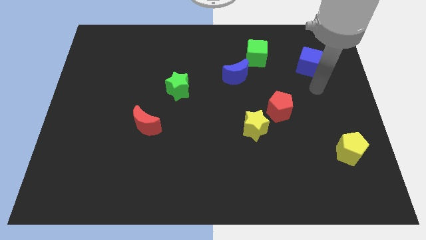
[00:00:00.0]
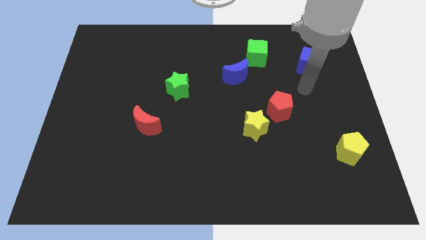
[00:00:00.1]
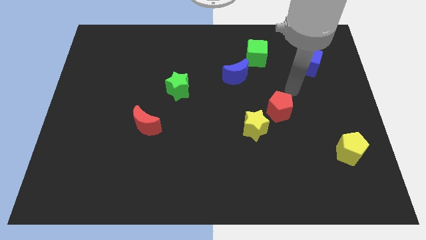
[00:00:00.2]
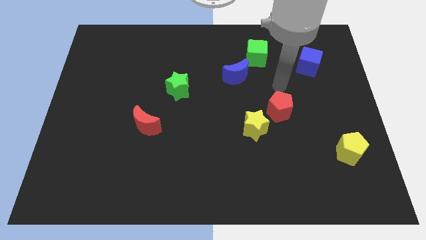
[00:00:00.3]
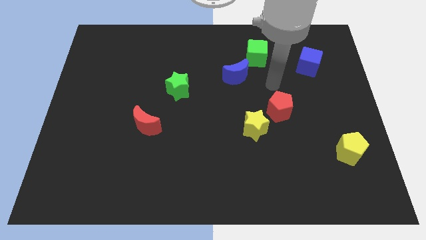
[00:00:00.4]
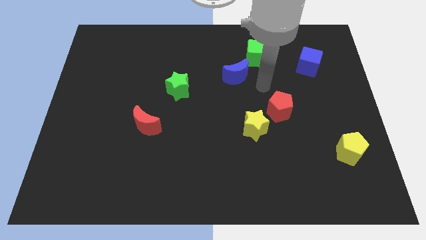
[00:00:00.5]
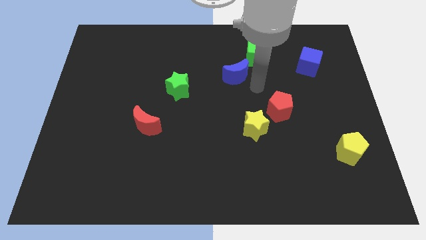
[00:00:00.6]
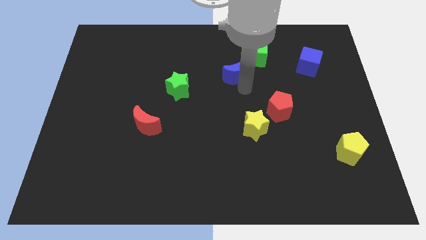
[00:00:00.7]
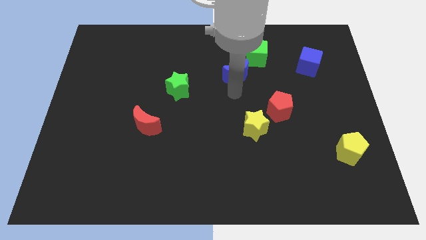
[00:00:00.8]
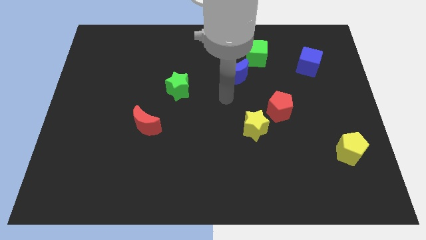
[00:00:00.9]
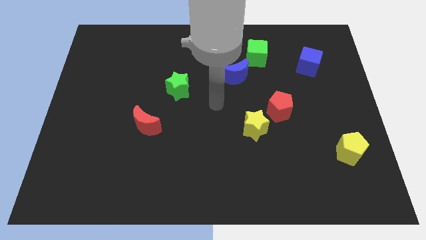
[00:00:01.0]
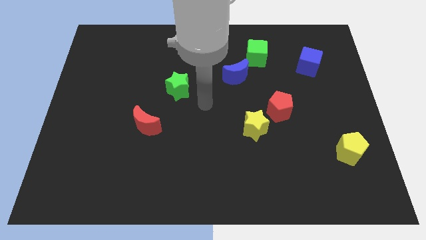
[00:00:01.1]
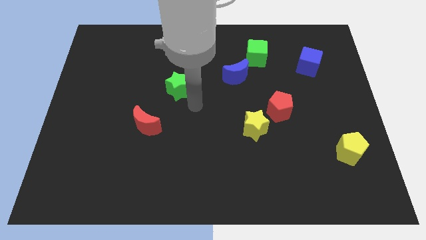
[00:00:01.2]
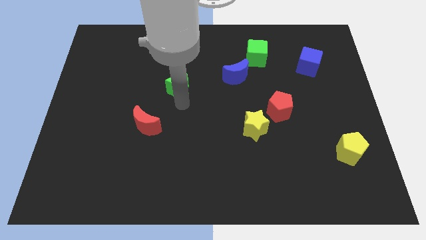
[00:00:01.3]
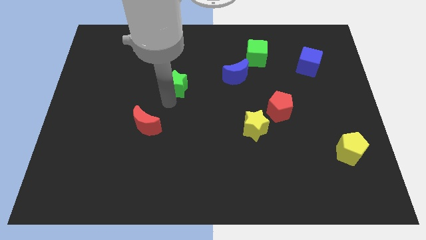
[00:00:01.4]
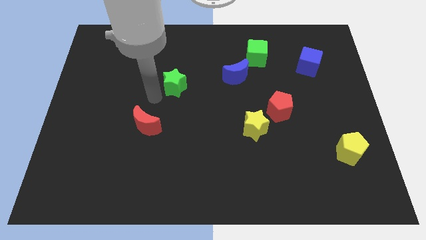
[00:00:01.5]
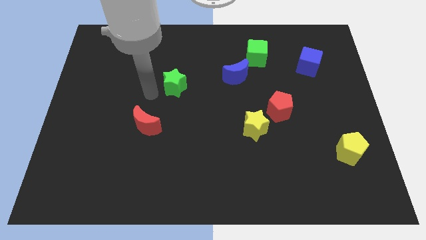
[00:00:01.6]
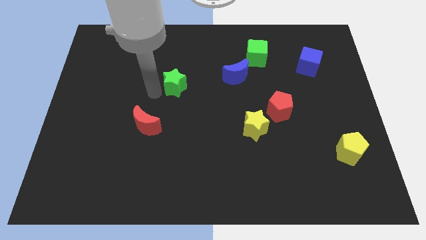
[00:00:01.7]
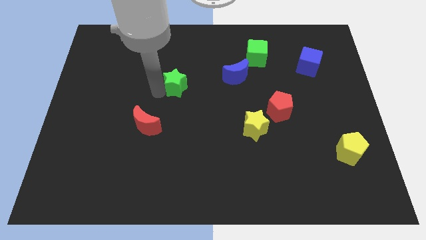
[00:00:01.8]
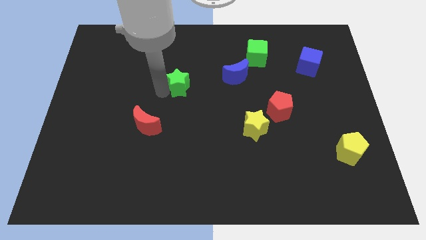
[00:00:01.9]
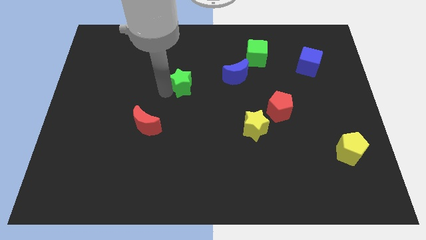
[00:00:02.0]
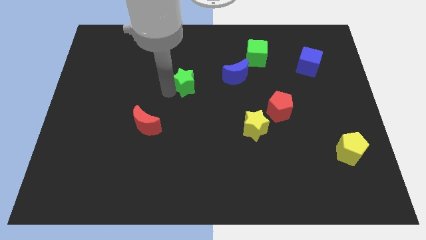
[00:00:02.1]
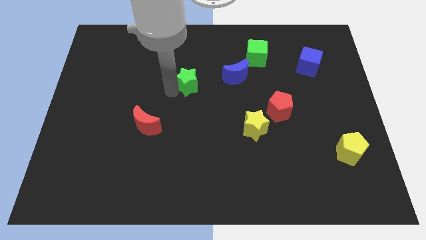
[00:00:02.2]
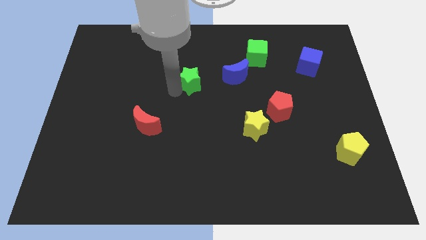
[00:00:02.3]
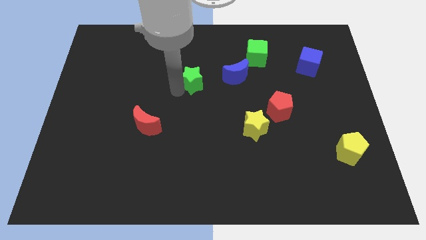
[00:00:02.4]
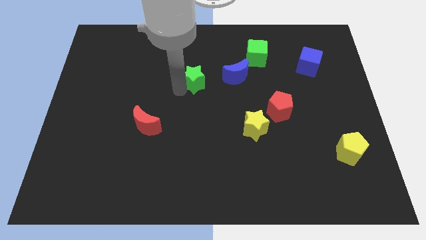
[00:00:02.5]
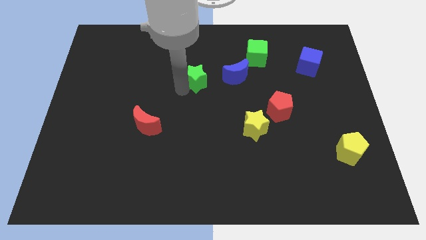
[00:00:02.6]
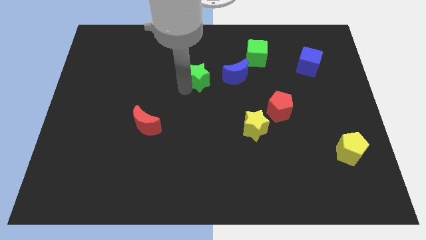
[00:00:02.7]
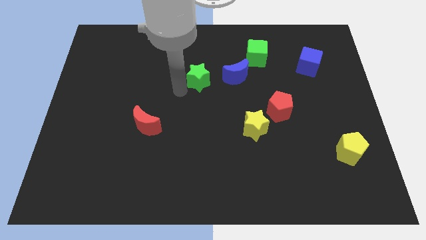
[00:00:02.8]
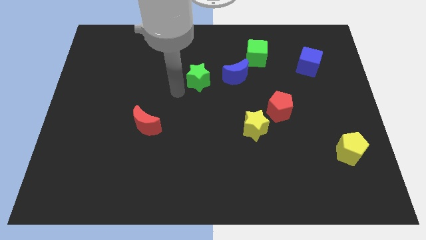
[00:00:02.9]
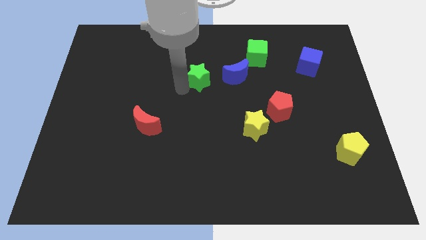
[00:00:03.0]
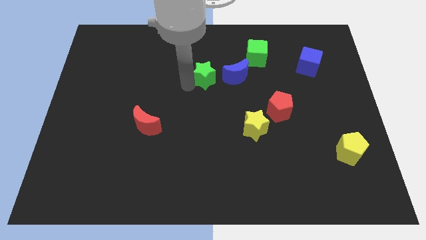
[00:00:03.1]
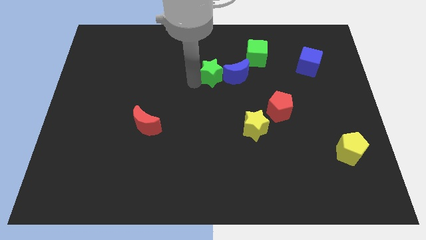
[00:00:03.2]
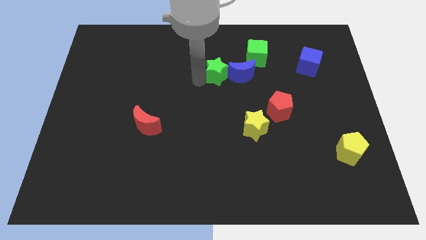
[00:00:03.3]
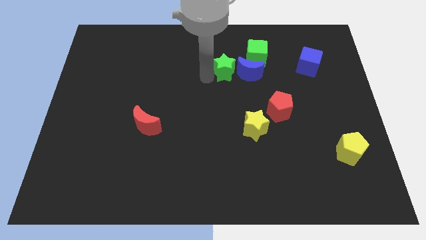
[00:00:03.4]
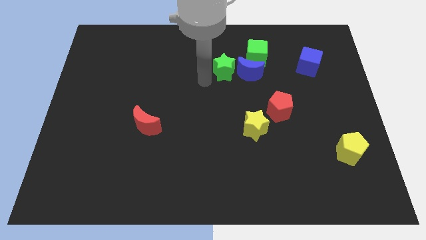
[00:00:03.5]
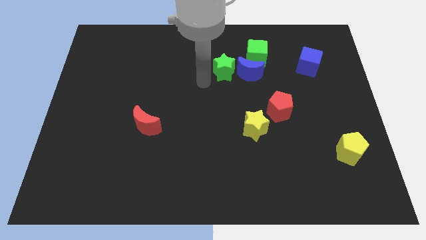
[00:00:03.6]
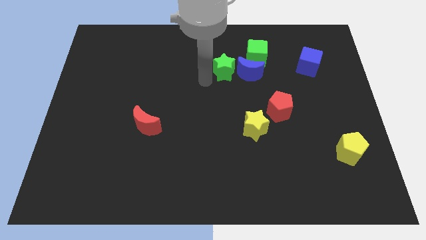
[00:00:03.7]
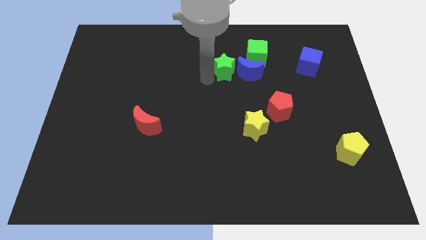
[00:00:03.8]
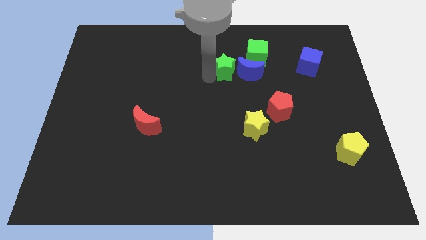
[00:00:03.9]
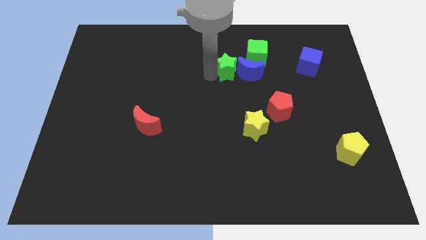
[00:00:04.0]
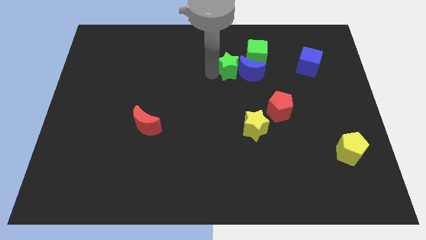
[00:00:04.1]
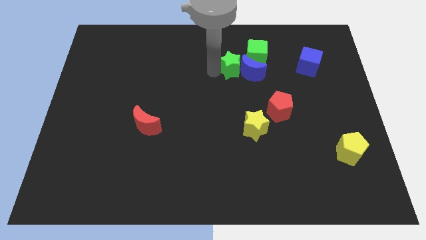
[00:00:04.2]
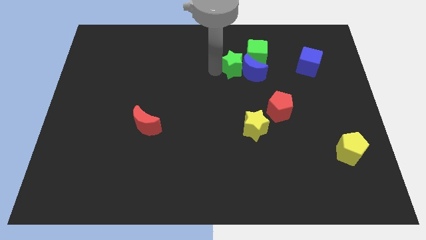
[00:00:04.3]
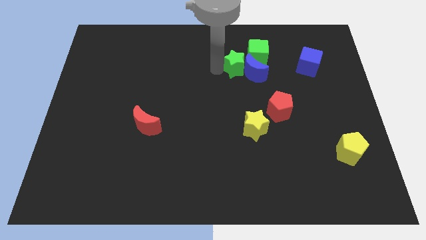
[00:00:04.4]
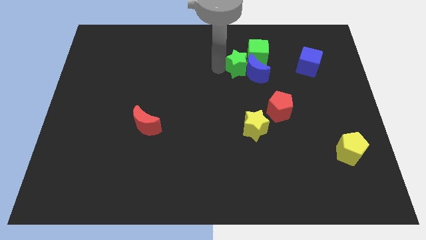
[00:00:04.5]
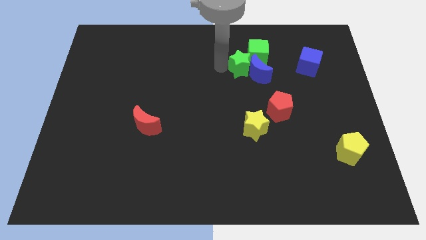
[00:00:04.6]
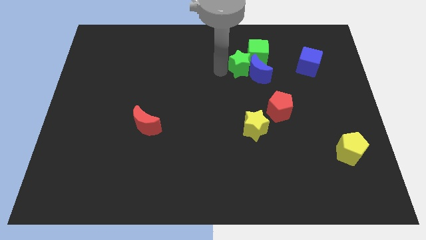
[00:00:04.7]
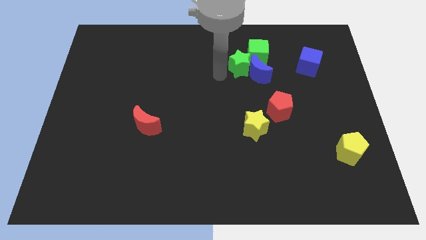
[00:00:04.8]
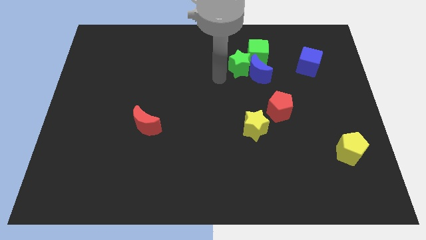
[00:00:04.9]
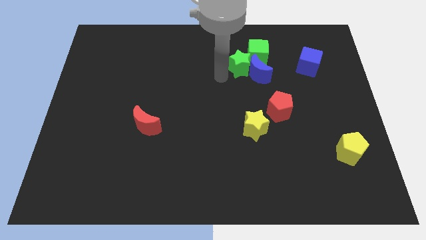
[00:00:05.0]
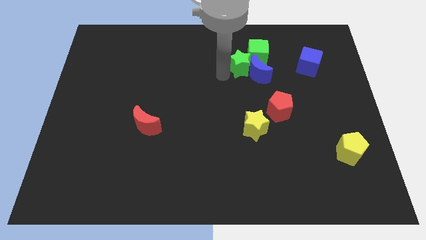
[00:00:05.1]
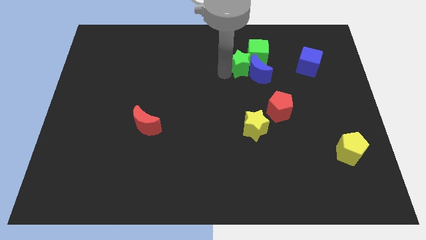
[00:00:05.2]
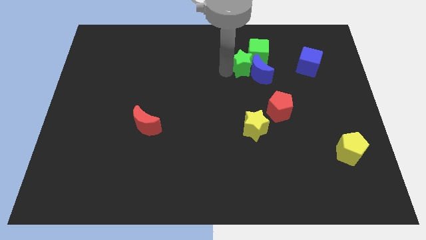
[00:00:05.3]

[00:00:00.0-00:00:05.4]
push the green star next to the green cube

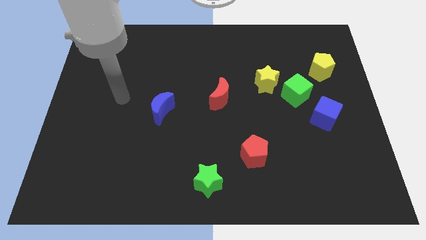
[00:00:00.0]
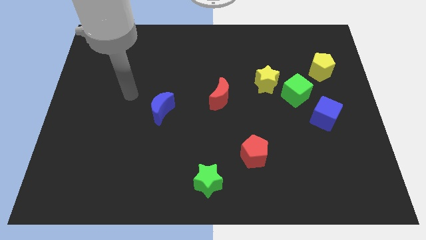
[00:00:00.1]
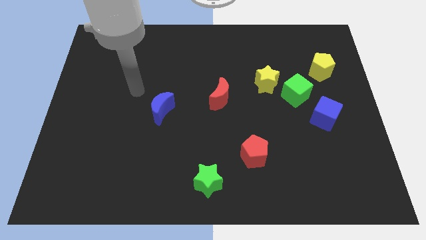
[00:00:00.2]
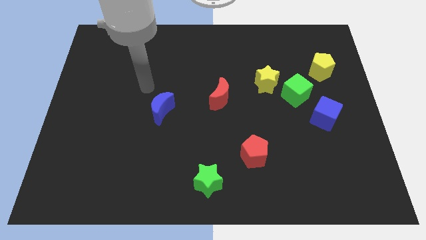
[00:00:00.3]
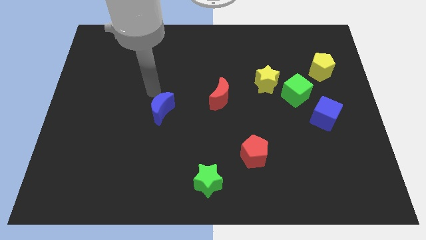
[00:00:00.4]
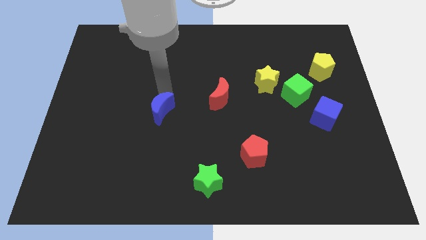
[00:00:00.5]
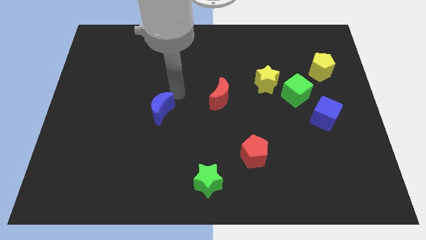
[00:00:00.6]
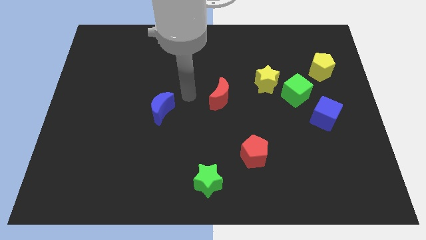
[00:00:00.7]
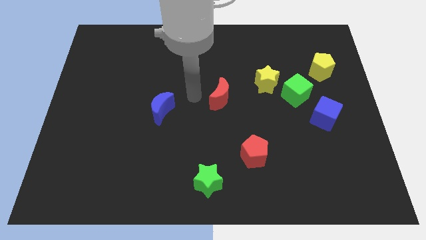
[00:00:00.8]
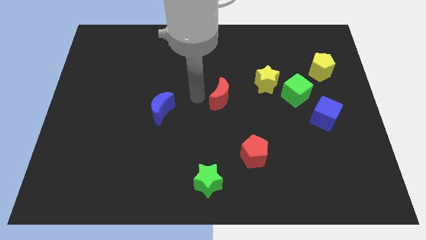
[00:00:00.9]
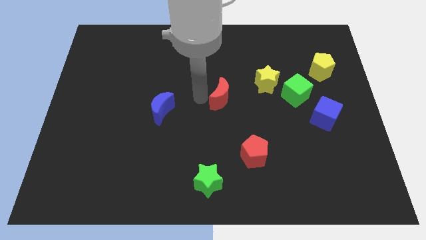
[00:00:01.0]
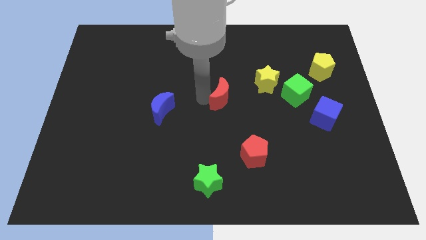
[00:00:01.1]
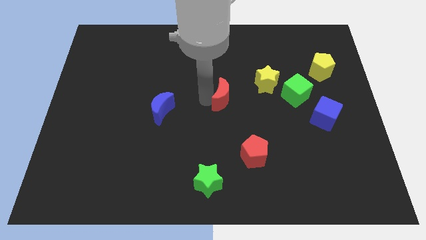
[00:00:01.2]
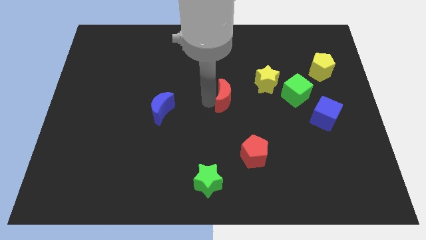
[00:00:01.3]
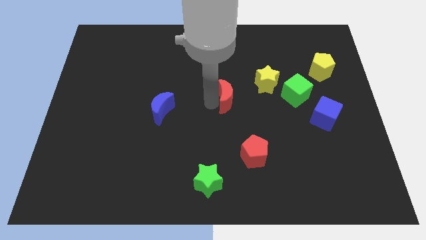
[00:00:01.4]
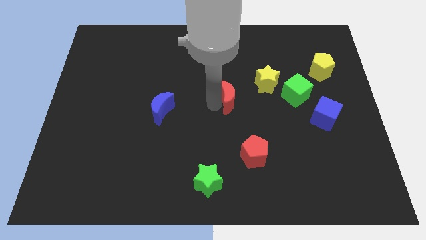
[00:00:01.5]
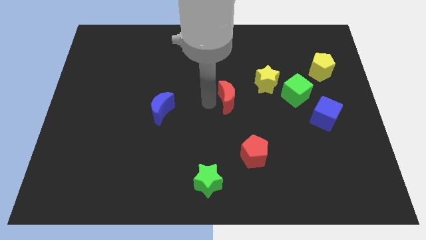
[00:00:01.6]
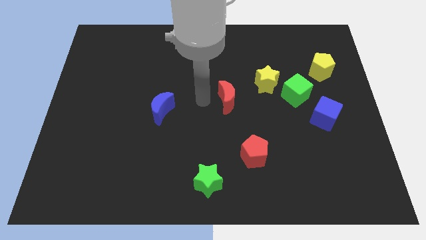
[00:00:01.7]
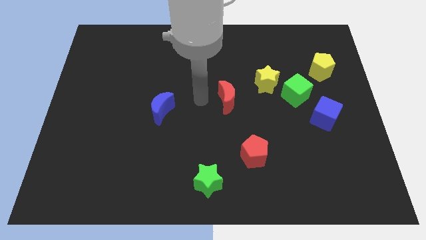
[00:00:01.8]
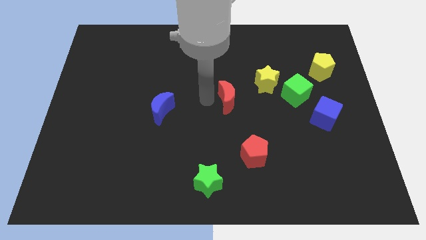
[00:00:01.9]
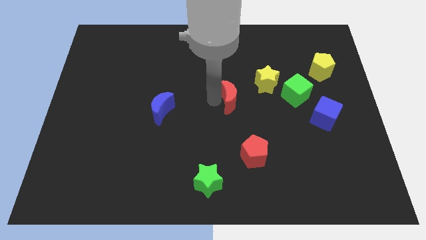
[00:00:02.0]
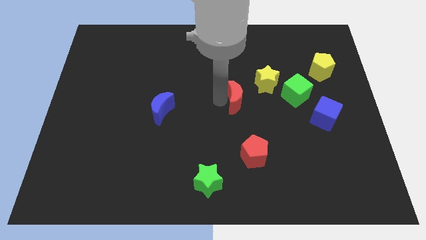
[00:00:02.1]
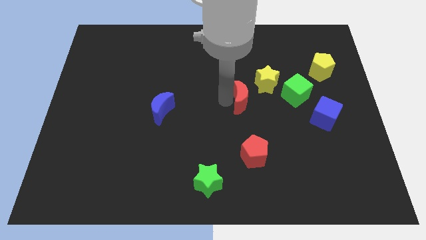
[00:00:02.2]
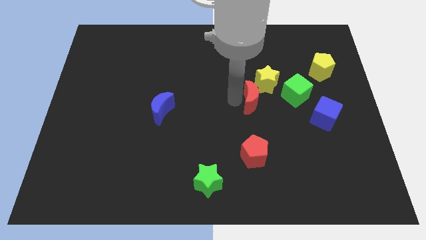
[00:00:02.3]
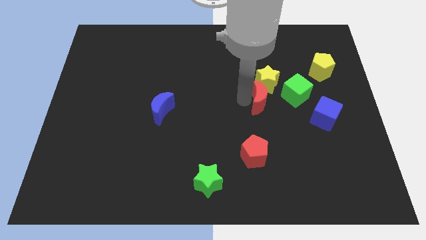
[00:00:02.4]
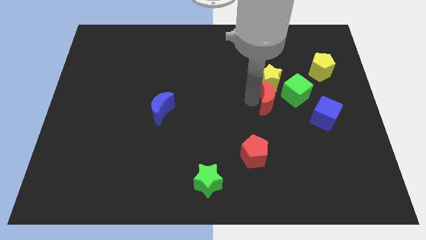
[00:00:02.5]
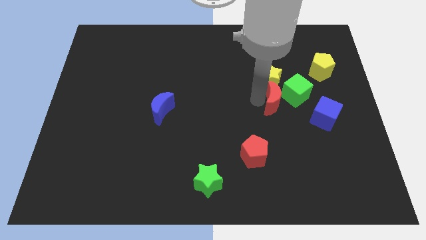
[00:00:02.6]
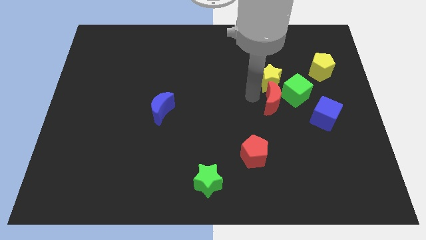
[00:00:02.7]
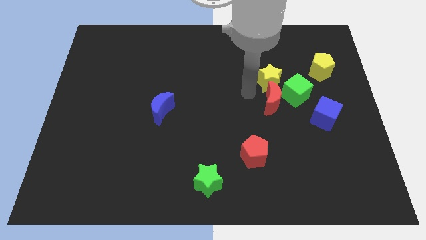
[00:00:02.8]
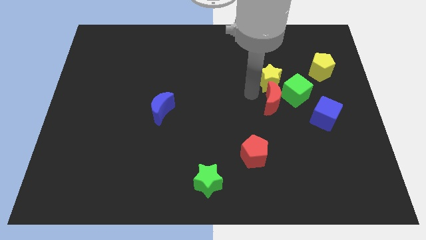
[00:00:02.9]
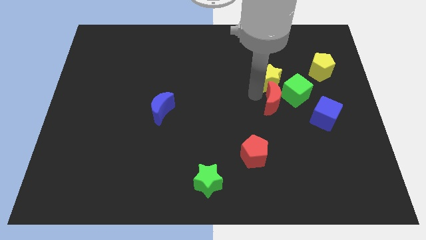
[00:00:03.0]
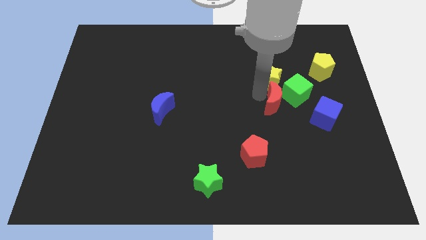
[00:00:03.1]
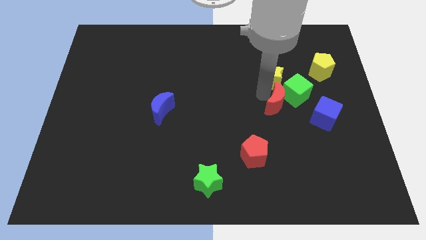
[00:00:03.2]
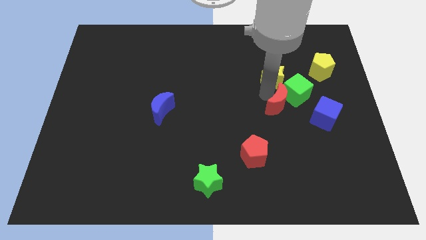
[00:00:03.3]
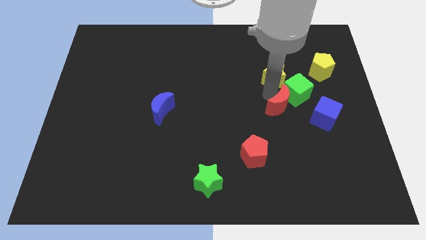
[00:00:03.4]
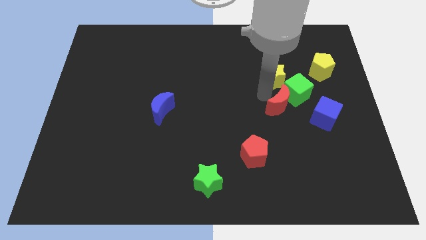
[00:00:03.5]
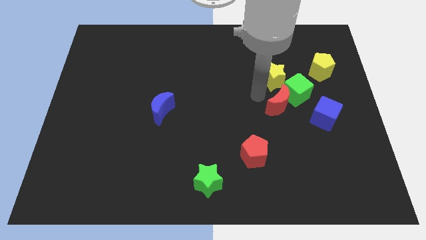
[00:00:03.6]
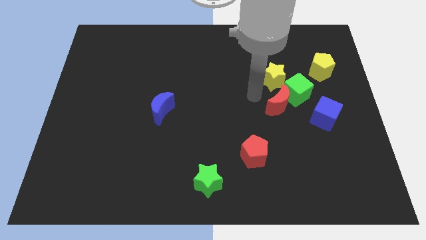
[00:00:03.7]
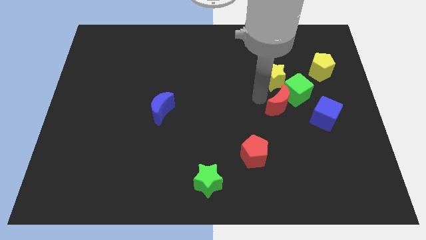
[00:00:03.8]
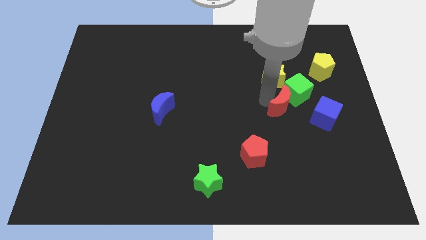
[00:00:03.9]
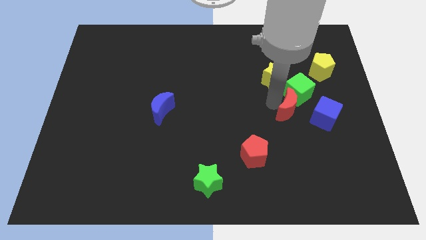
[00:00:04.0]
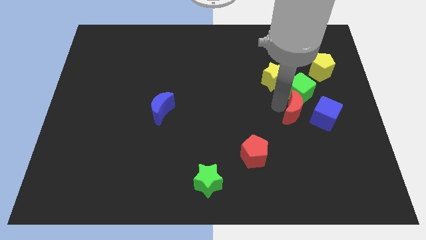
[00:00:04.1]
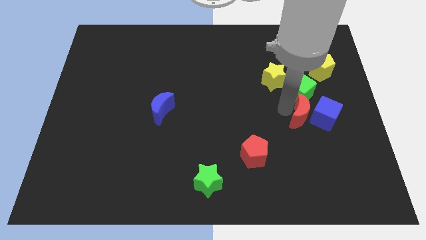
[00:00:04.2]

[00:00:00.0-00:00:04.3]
slide the red moon close to the blue cube
